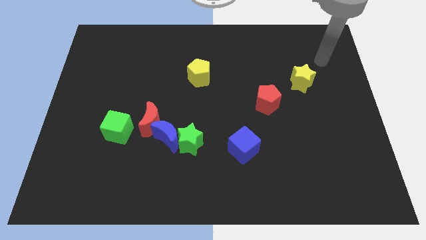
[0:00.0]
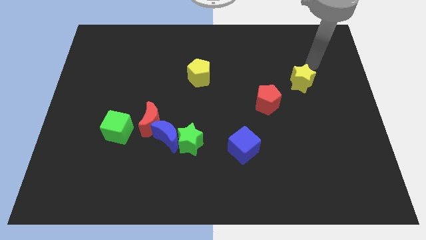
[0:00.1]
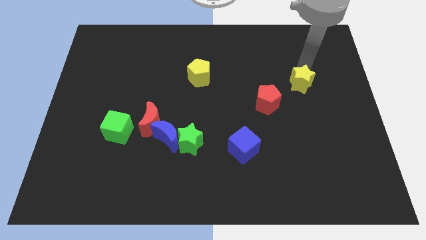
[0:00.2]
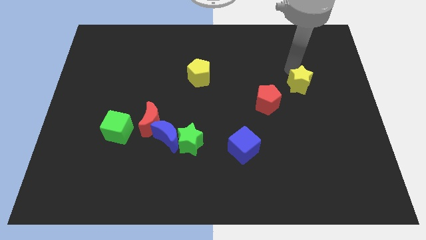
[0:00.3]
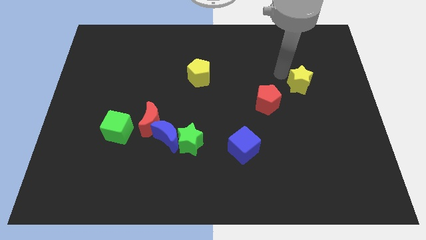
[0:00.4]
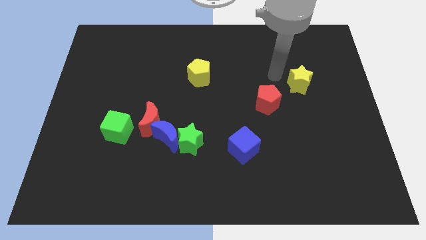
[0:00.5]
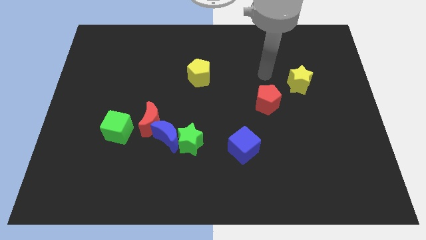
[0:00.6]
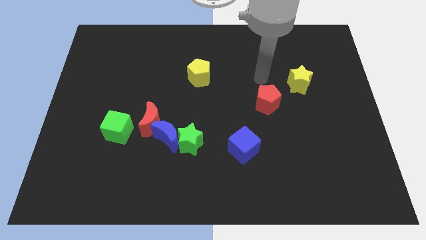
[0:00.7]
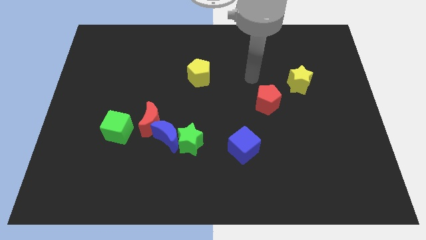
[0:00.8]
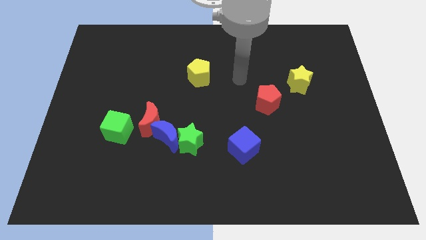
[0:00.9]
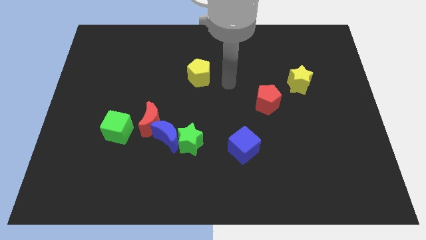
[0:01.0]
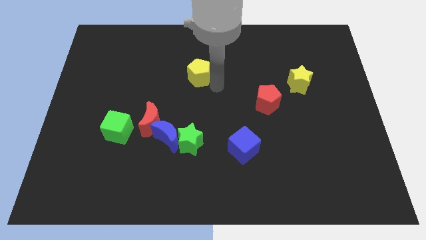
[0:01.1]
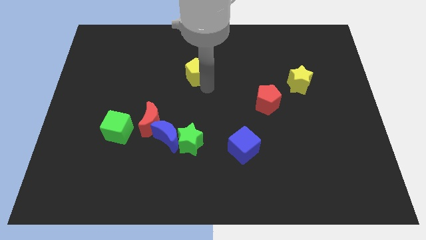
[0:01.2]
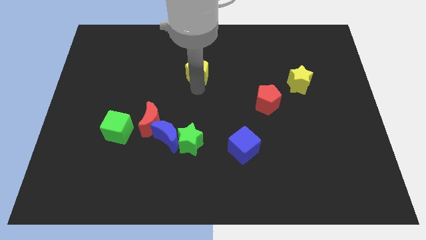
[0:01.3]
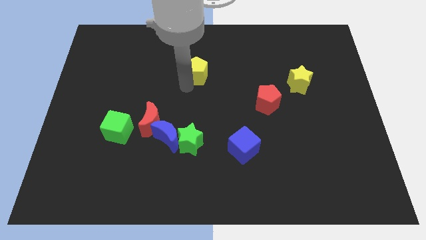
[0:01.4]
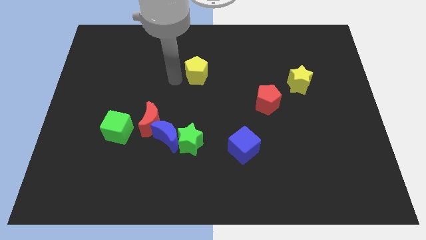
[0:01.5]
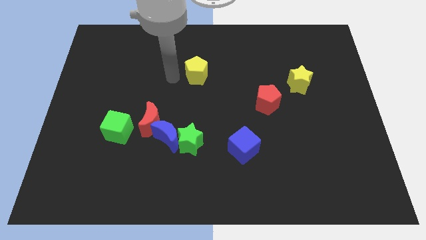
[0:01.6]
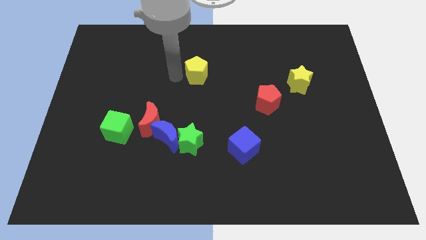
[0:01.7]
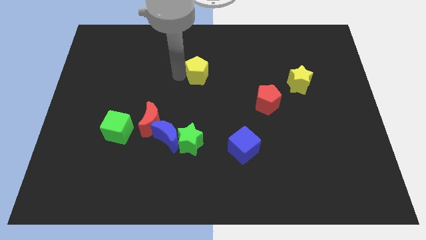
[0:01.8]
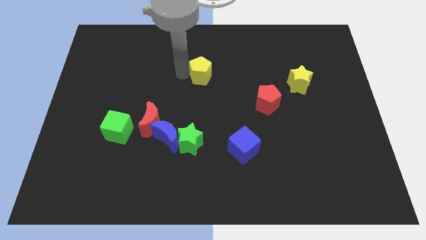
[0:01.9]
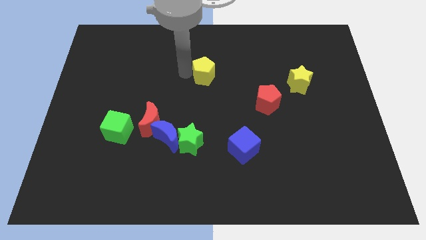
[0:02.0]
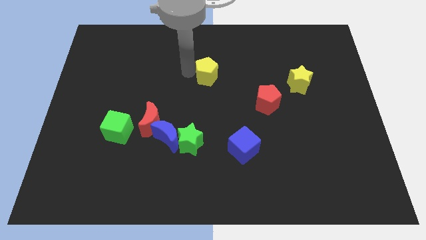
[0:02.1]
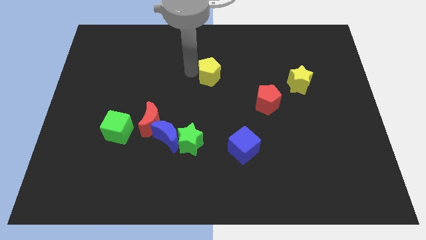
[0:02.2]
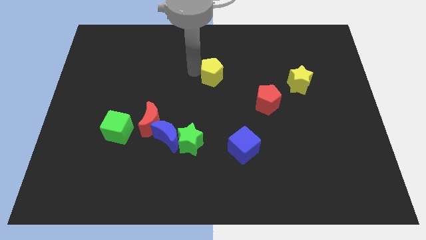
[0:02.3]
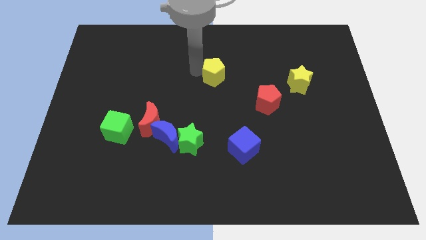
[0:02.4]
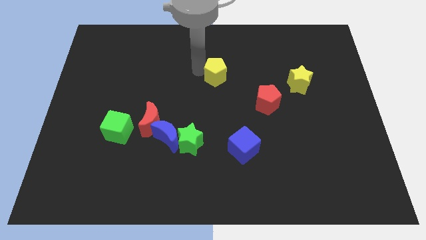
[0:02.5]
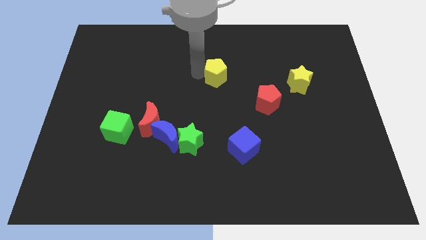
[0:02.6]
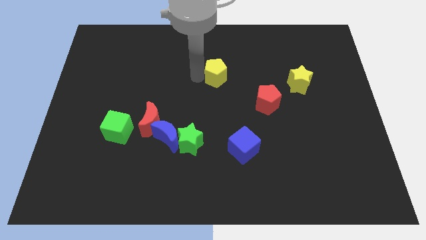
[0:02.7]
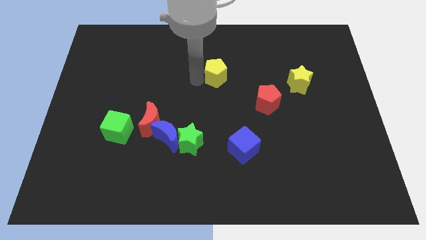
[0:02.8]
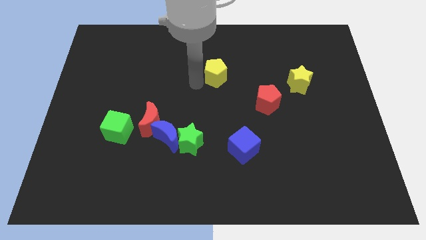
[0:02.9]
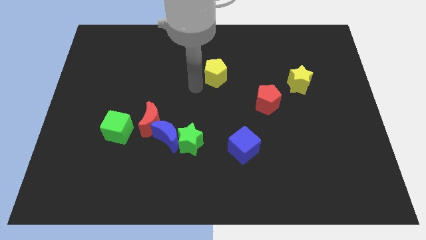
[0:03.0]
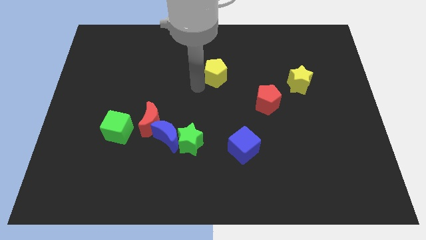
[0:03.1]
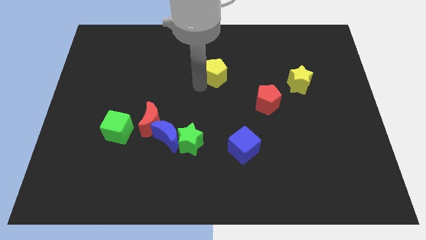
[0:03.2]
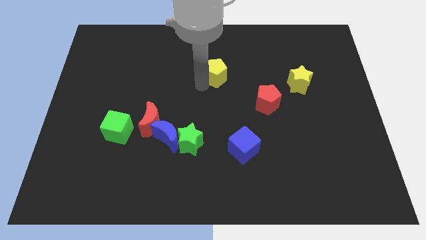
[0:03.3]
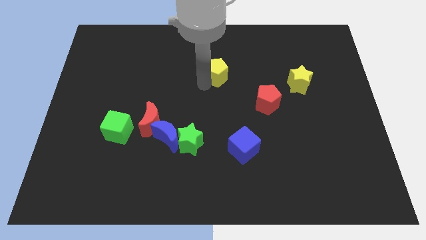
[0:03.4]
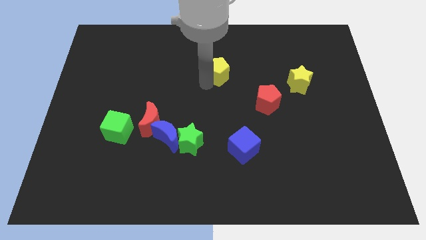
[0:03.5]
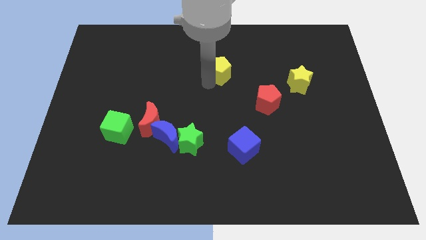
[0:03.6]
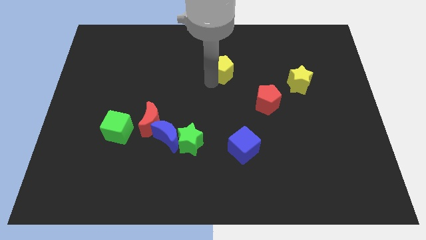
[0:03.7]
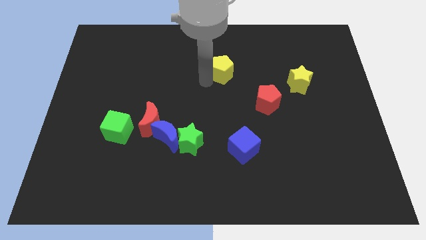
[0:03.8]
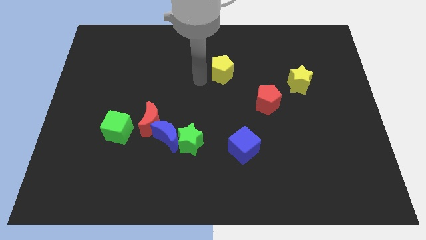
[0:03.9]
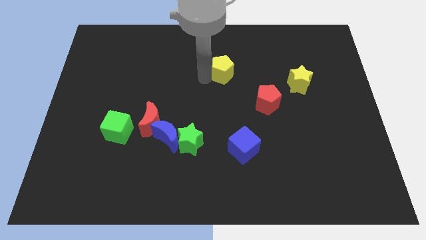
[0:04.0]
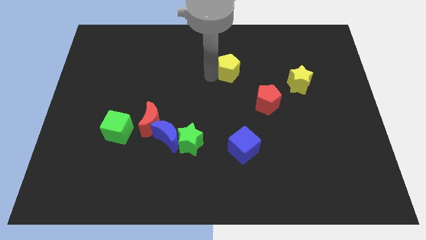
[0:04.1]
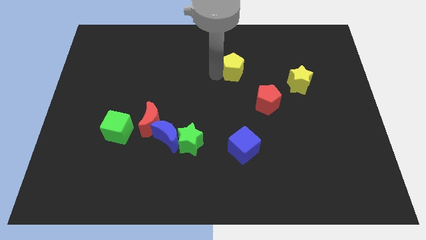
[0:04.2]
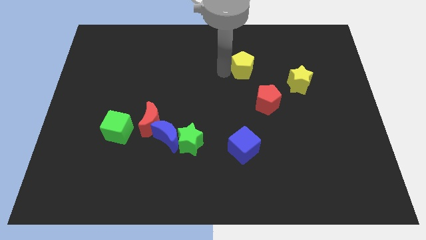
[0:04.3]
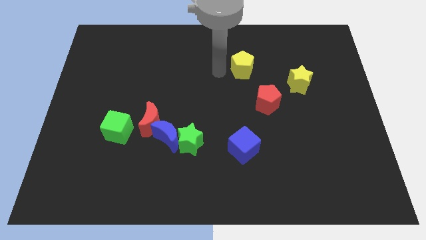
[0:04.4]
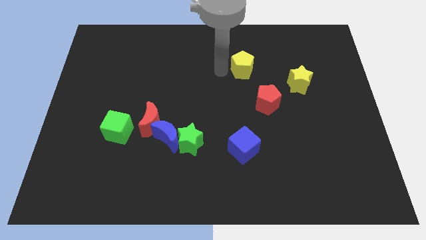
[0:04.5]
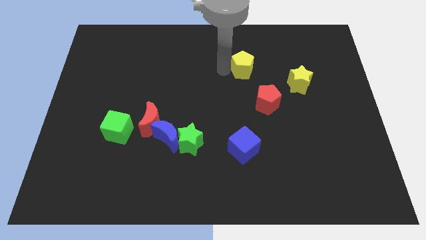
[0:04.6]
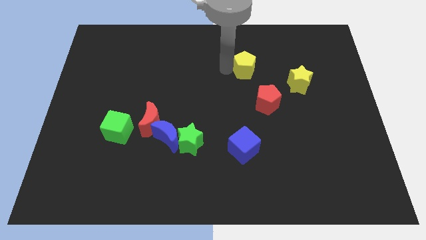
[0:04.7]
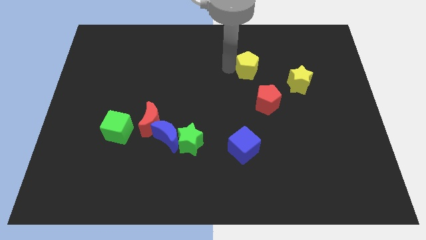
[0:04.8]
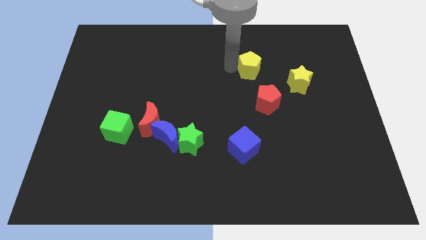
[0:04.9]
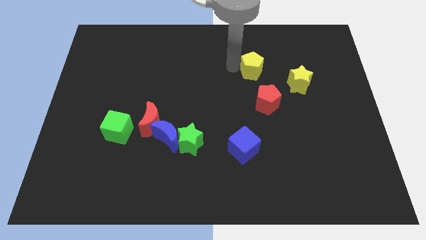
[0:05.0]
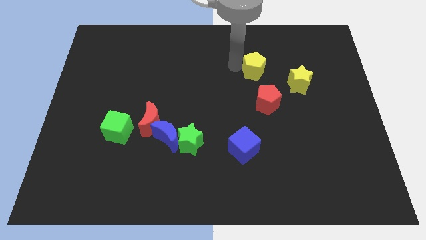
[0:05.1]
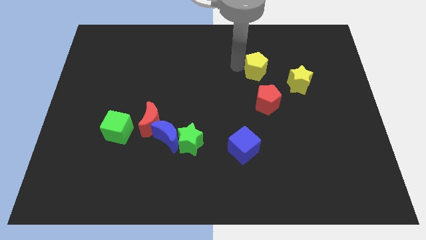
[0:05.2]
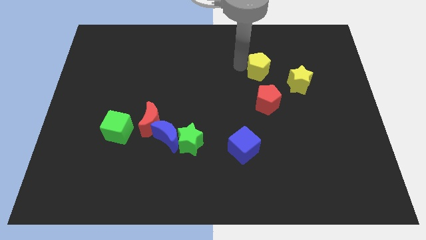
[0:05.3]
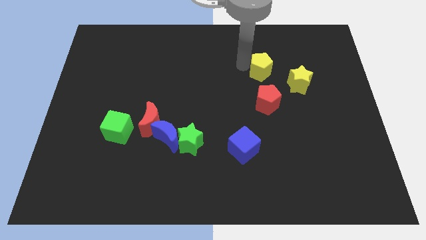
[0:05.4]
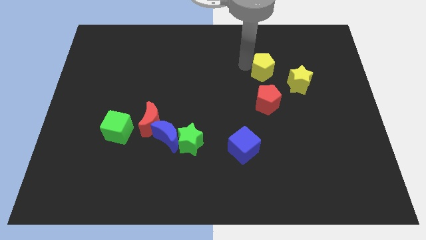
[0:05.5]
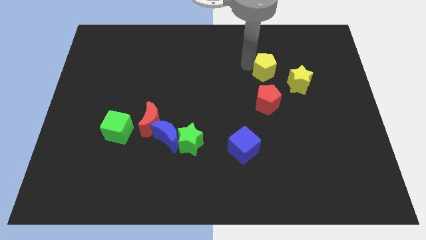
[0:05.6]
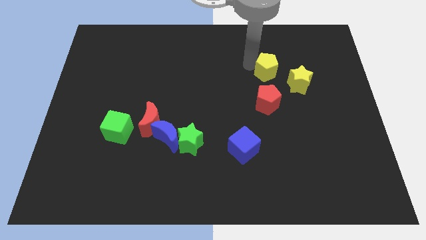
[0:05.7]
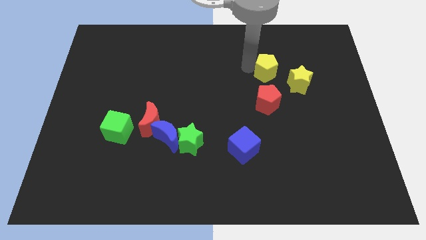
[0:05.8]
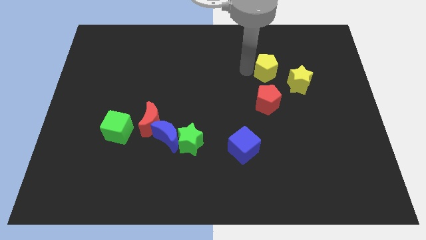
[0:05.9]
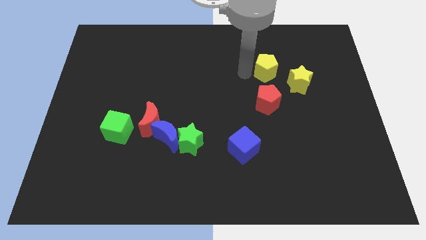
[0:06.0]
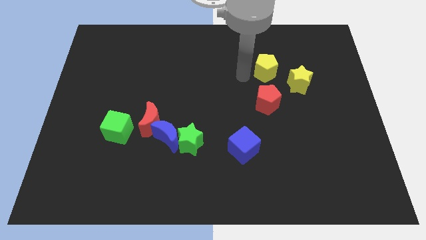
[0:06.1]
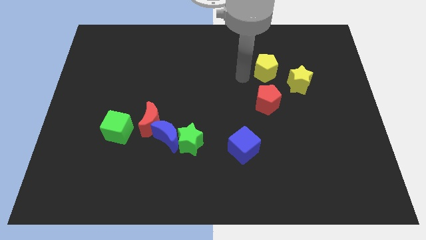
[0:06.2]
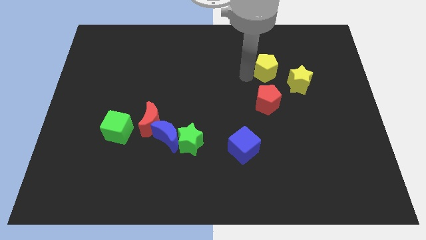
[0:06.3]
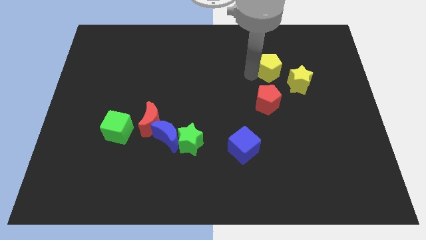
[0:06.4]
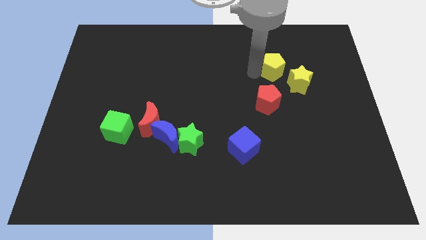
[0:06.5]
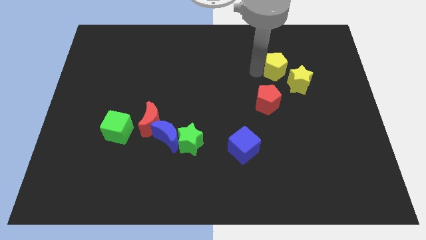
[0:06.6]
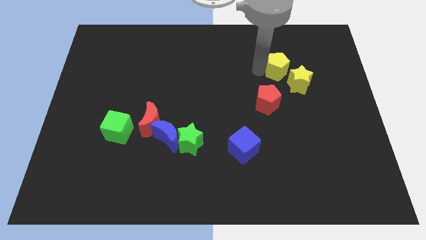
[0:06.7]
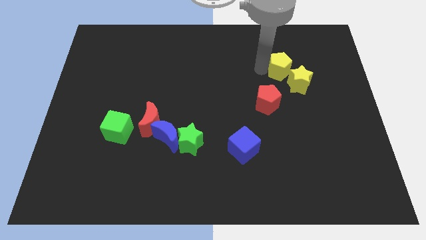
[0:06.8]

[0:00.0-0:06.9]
move the yellow pentagon right

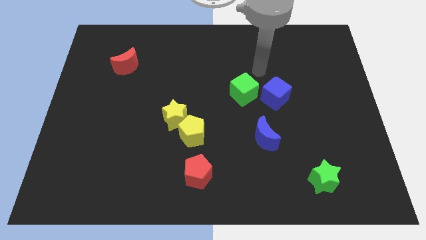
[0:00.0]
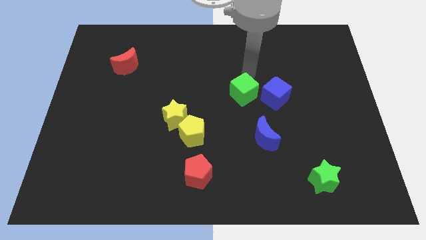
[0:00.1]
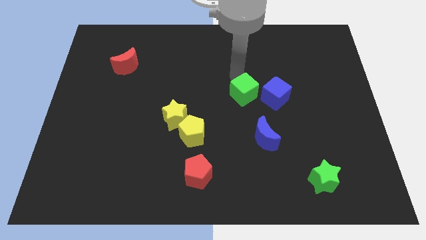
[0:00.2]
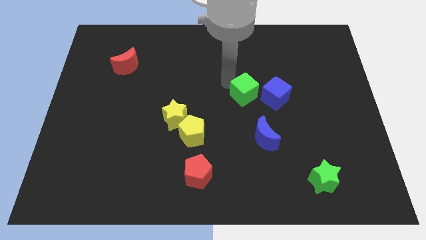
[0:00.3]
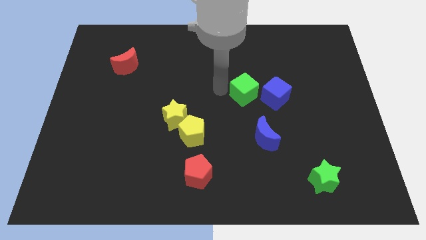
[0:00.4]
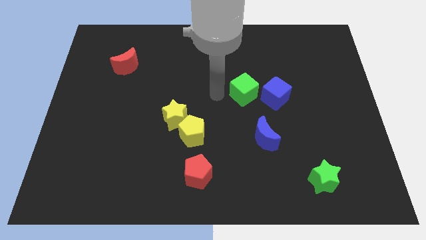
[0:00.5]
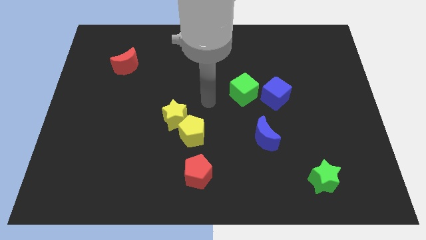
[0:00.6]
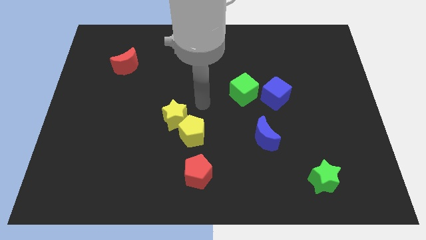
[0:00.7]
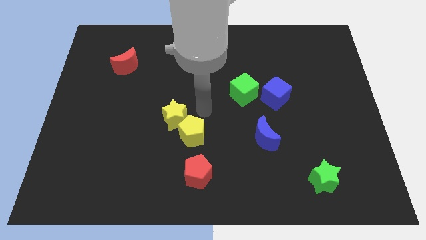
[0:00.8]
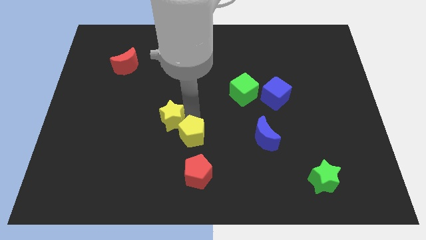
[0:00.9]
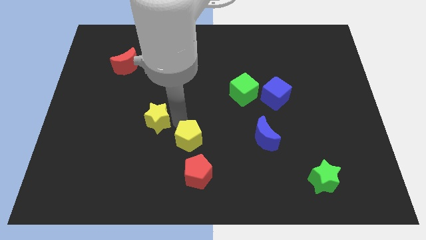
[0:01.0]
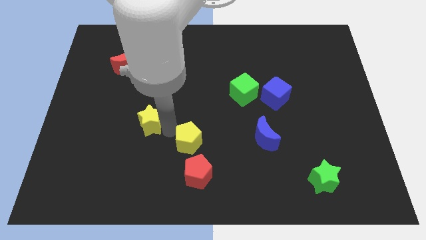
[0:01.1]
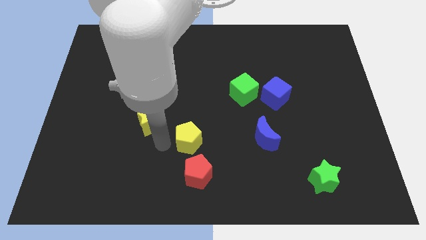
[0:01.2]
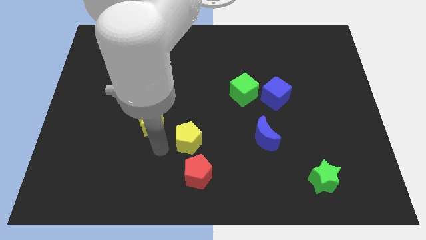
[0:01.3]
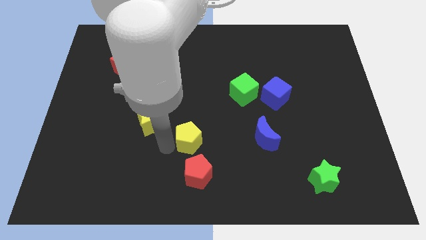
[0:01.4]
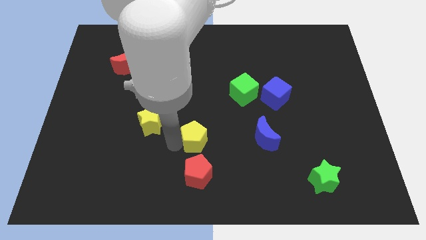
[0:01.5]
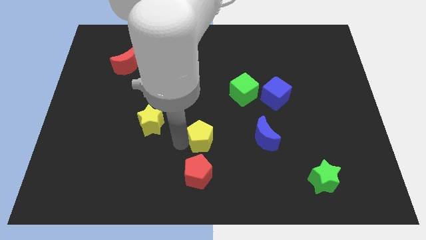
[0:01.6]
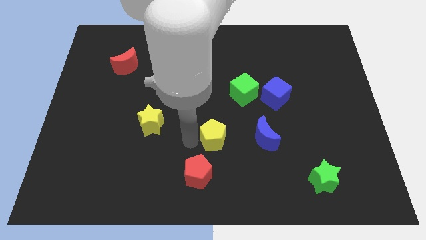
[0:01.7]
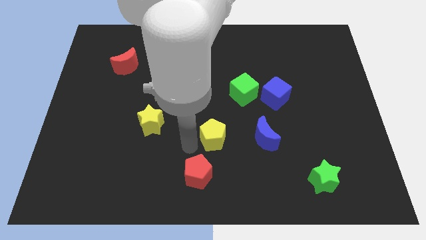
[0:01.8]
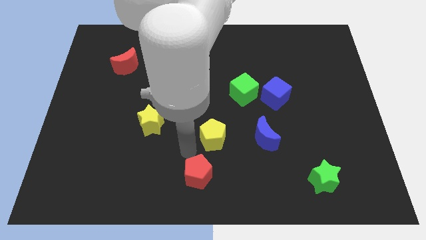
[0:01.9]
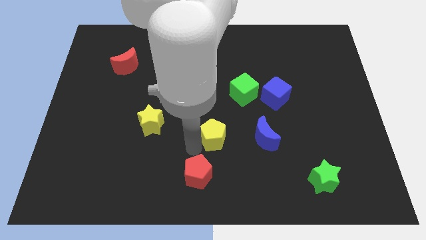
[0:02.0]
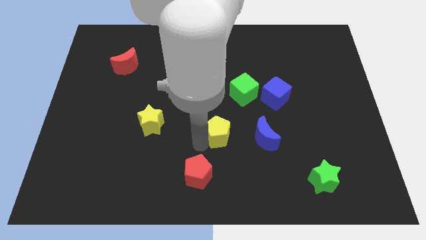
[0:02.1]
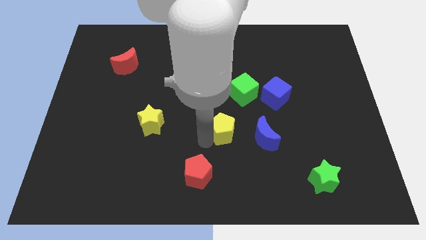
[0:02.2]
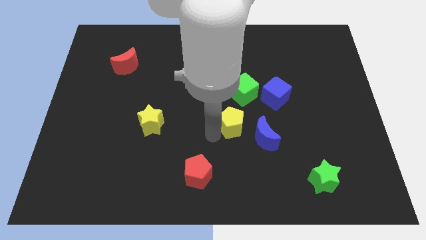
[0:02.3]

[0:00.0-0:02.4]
move the yellow pentagon slightly right
